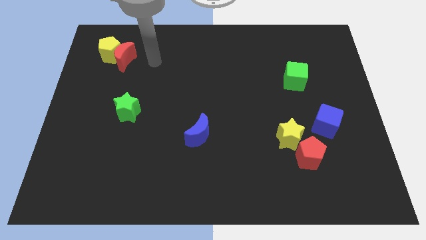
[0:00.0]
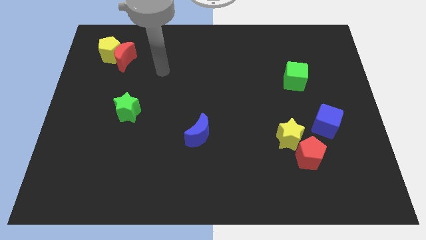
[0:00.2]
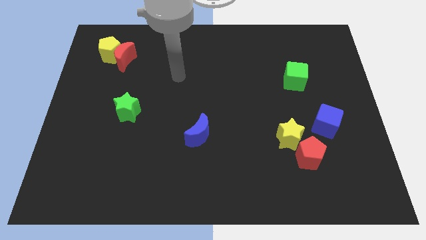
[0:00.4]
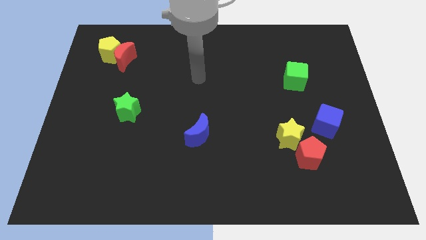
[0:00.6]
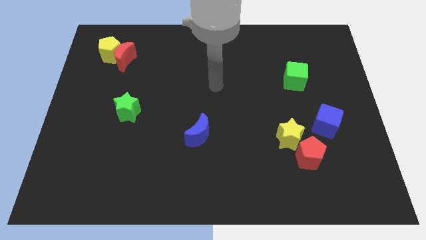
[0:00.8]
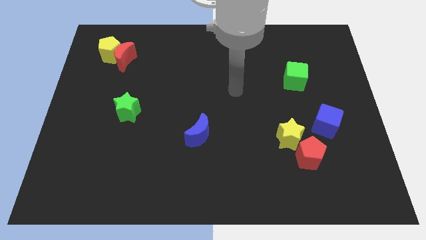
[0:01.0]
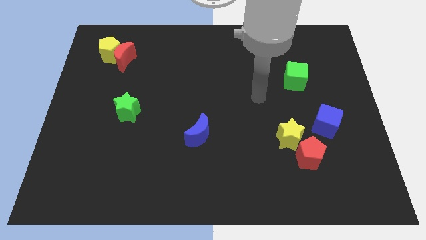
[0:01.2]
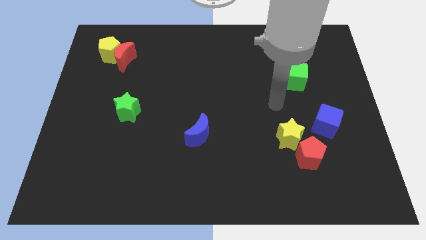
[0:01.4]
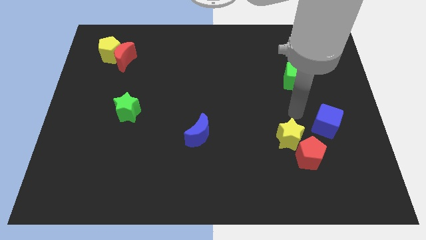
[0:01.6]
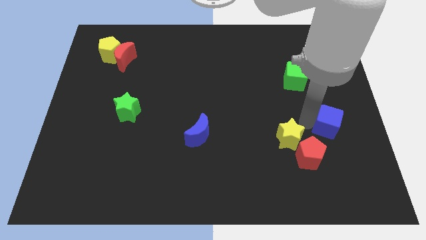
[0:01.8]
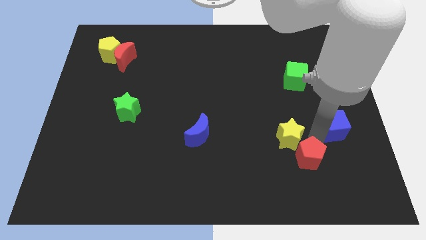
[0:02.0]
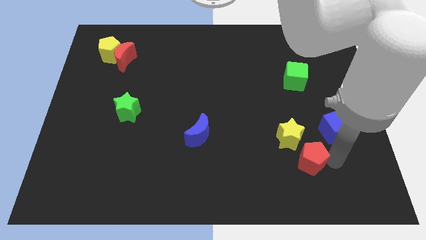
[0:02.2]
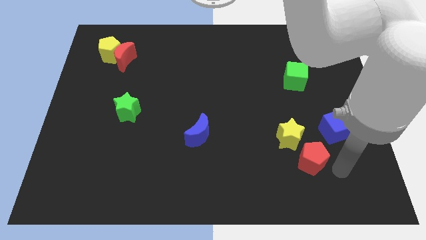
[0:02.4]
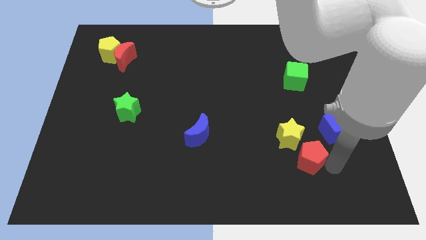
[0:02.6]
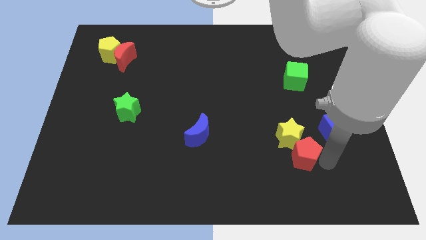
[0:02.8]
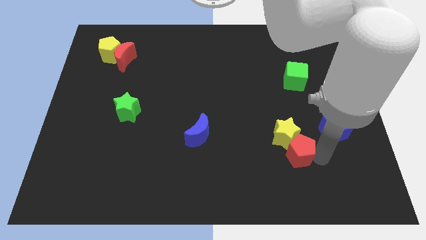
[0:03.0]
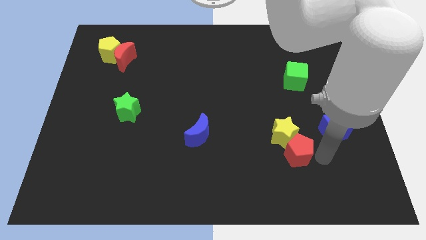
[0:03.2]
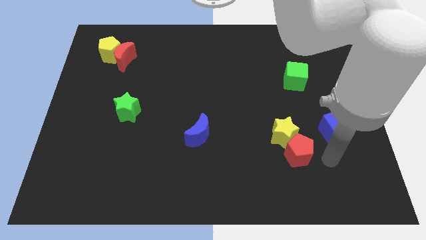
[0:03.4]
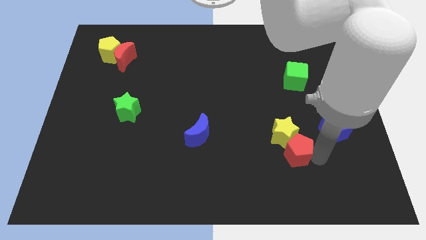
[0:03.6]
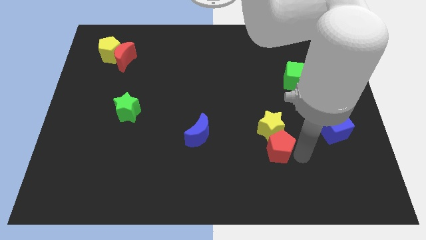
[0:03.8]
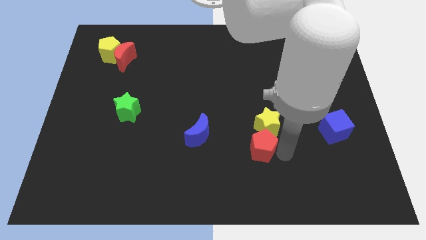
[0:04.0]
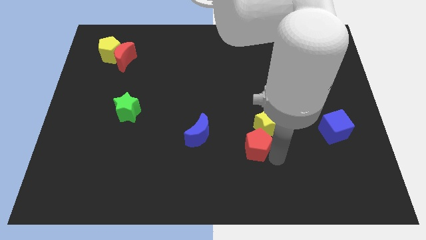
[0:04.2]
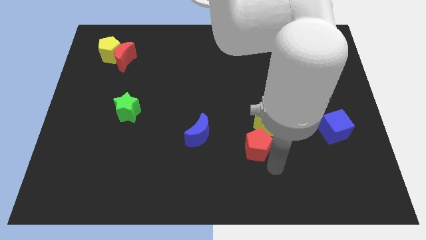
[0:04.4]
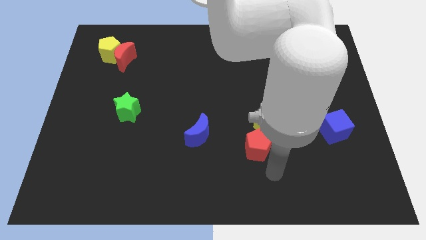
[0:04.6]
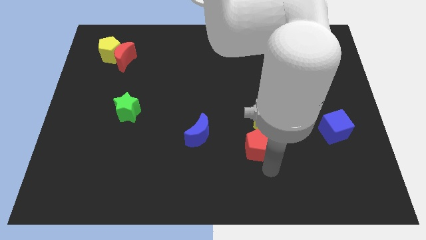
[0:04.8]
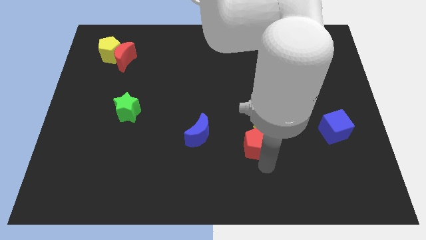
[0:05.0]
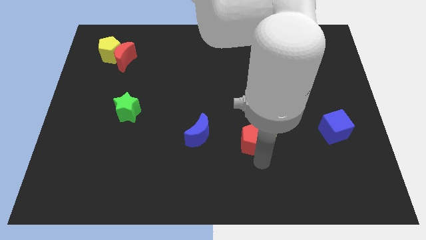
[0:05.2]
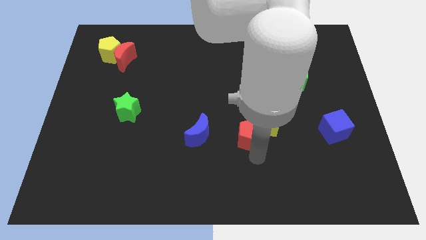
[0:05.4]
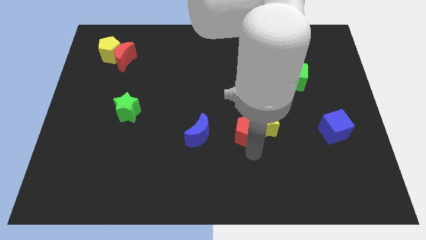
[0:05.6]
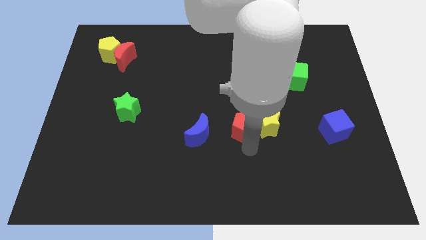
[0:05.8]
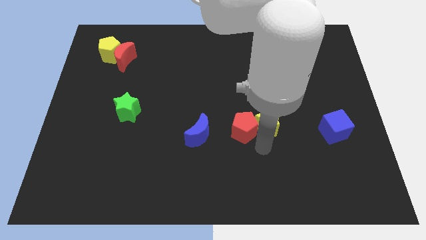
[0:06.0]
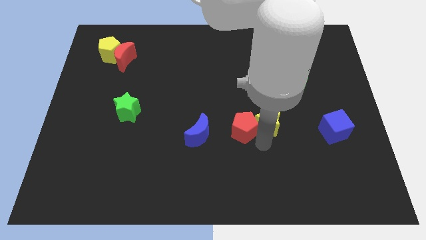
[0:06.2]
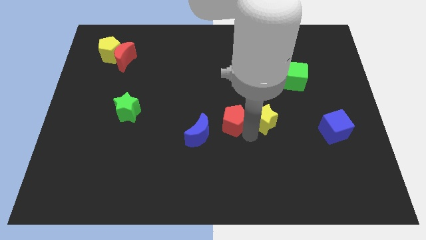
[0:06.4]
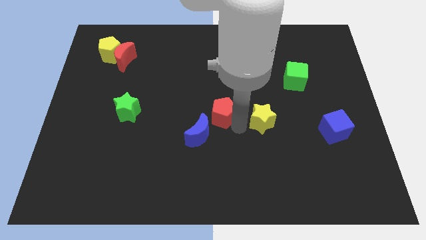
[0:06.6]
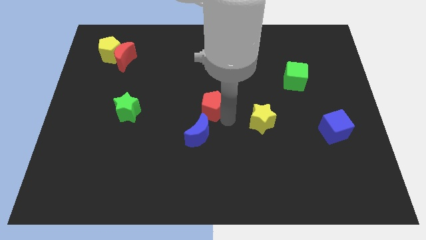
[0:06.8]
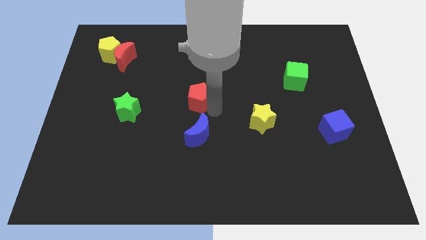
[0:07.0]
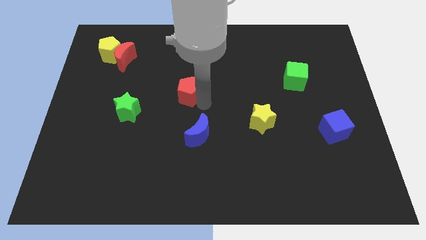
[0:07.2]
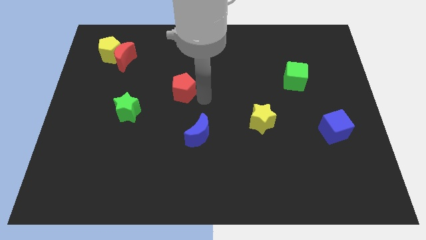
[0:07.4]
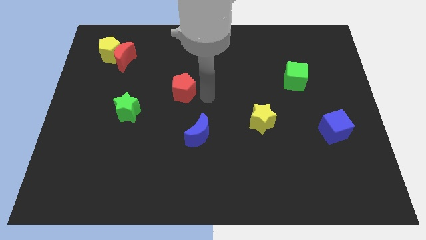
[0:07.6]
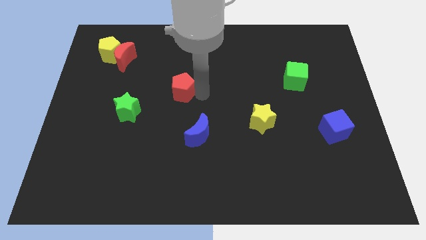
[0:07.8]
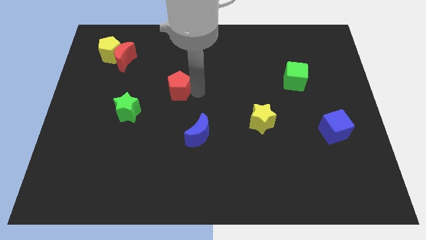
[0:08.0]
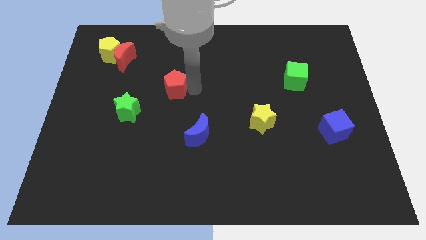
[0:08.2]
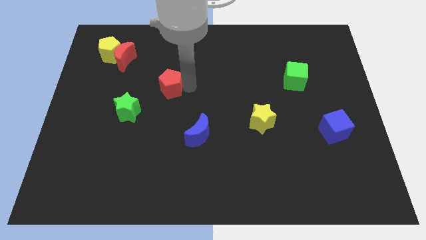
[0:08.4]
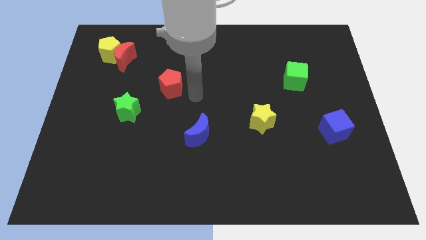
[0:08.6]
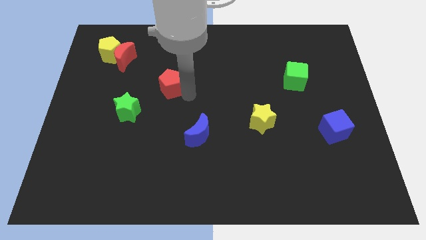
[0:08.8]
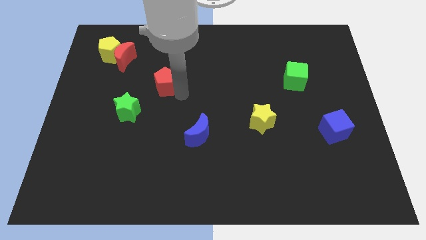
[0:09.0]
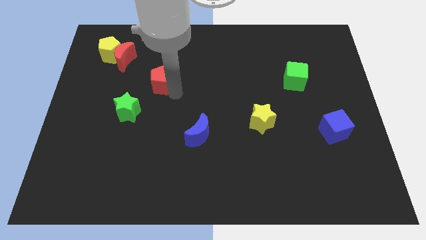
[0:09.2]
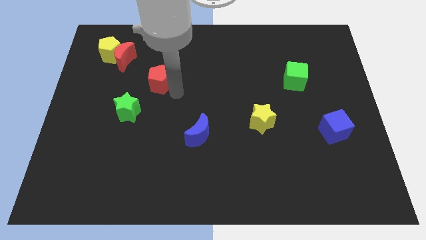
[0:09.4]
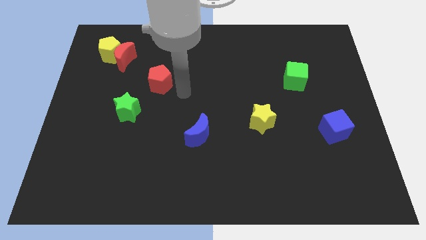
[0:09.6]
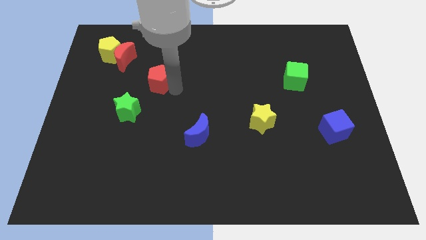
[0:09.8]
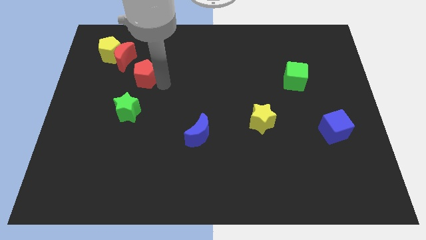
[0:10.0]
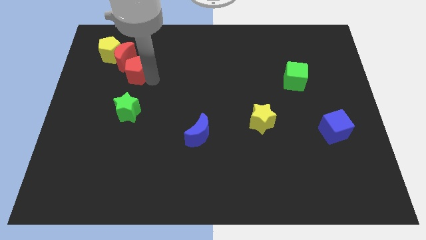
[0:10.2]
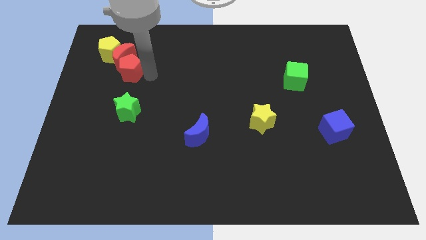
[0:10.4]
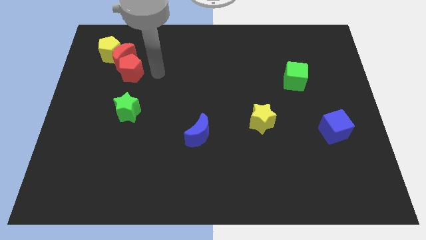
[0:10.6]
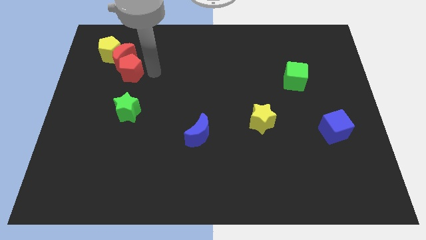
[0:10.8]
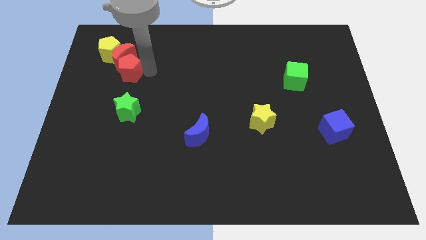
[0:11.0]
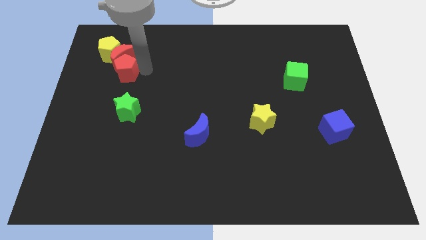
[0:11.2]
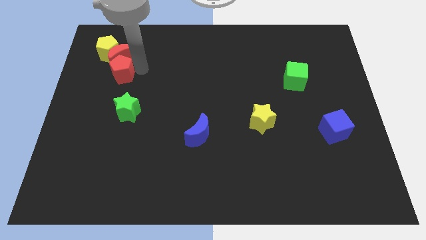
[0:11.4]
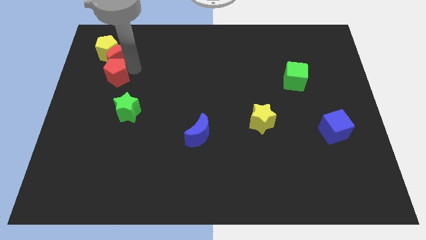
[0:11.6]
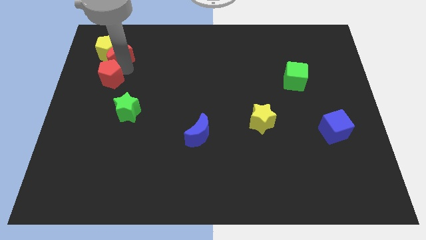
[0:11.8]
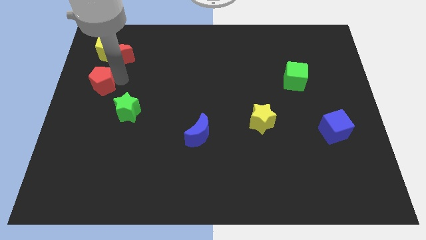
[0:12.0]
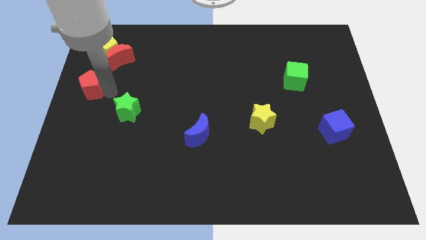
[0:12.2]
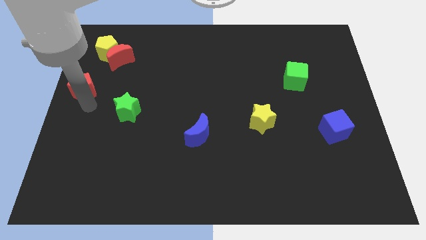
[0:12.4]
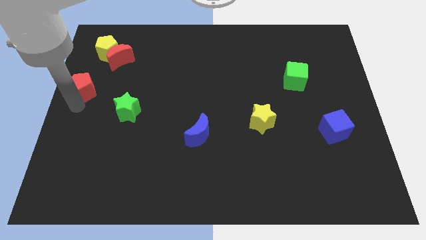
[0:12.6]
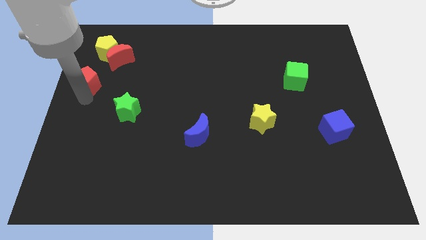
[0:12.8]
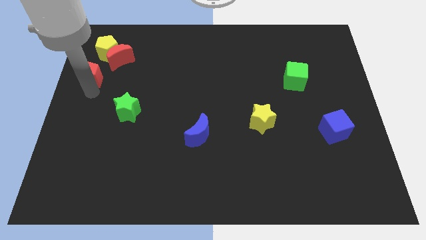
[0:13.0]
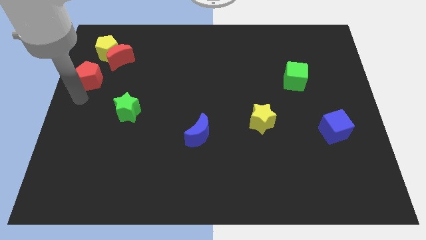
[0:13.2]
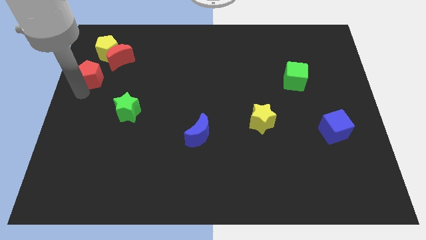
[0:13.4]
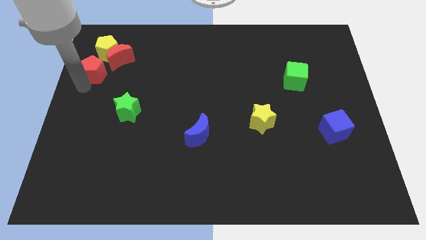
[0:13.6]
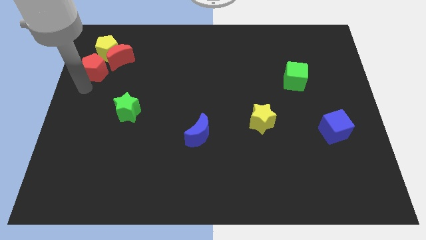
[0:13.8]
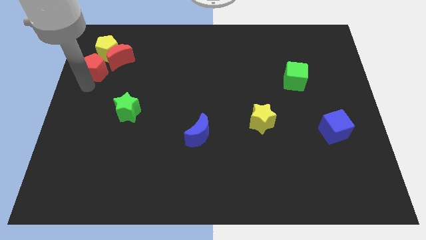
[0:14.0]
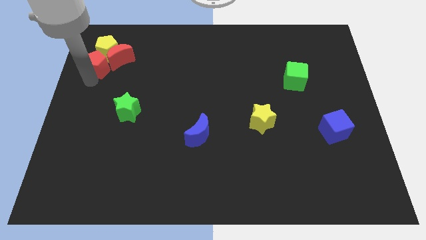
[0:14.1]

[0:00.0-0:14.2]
put the red pentagon close to the yellow pentagon

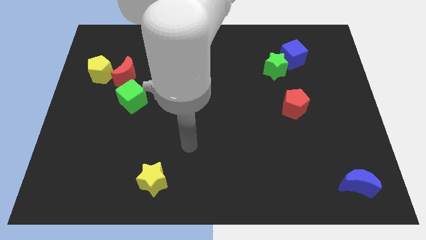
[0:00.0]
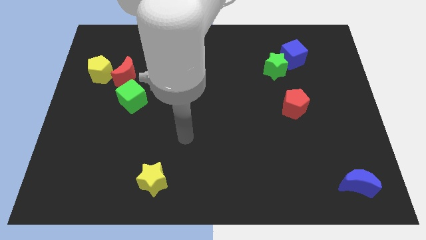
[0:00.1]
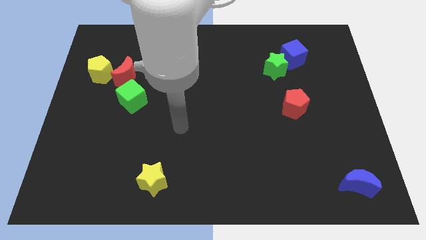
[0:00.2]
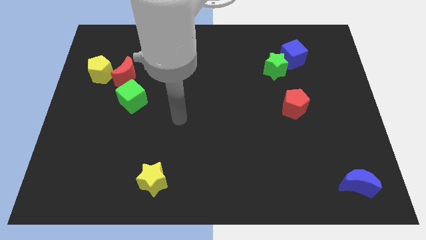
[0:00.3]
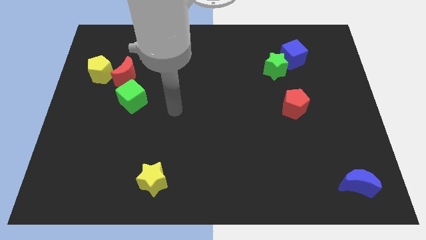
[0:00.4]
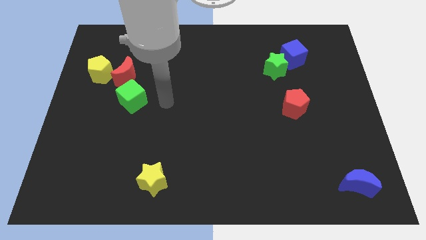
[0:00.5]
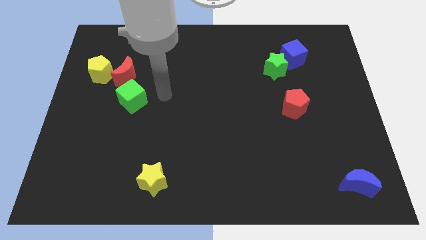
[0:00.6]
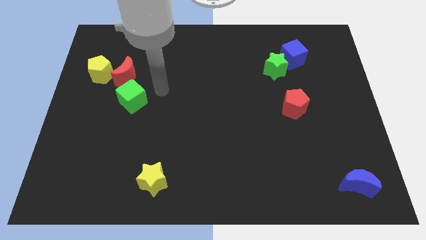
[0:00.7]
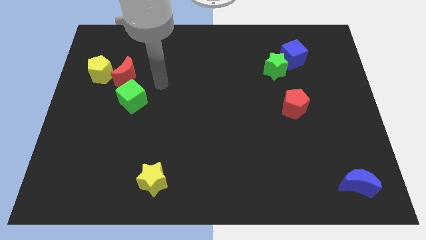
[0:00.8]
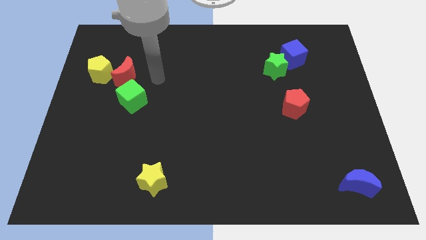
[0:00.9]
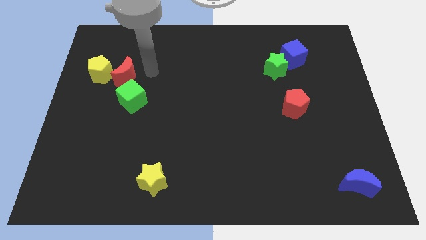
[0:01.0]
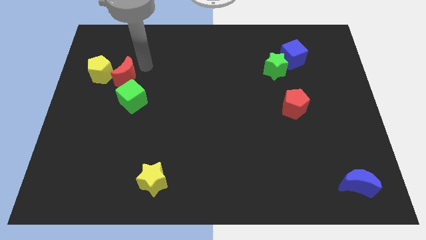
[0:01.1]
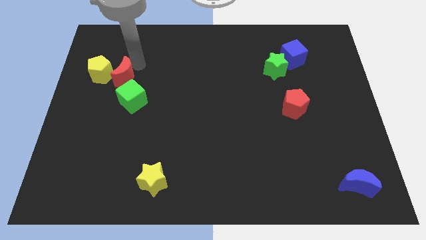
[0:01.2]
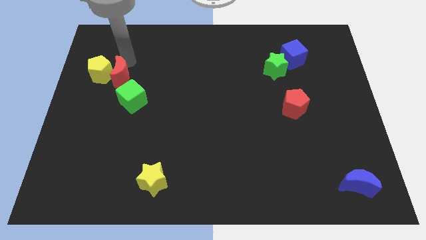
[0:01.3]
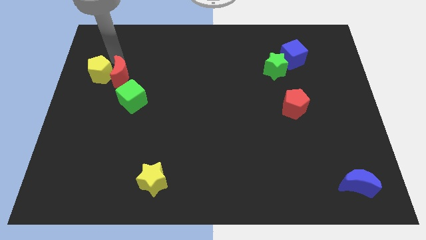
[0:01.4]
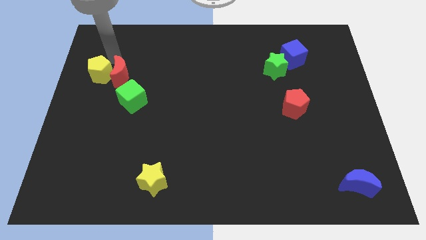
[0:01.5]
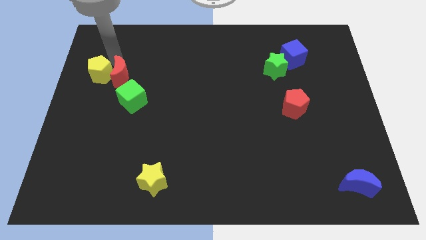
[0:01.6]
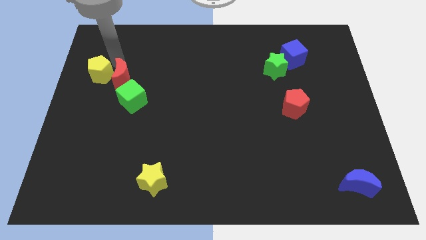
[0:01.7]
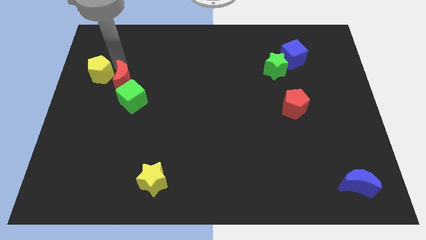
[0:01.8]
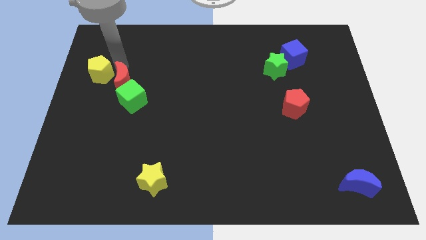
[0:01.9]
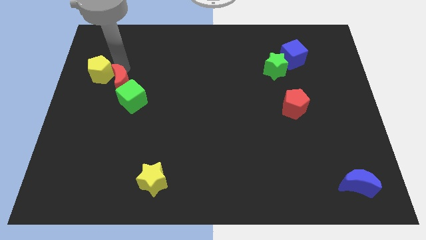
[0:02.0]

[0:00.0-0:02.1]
put the red moon next to the green cube
